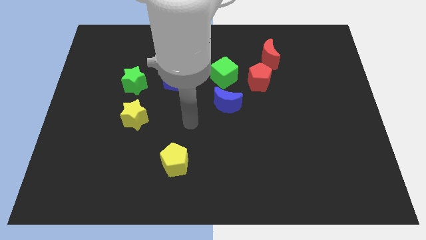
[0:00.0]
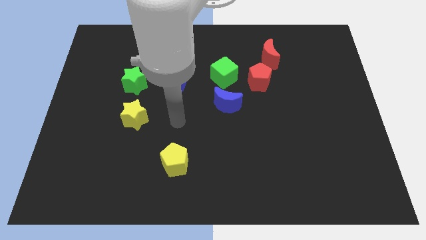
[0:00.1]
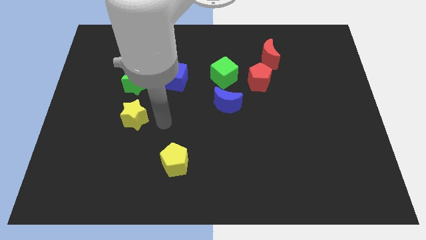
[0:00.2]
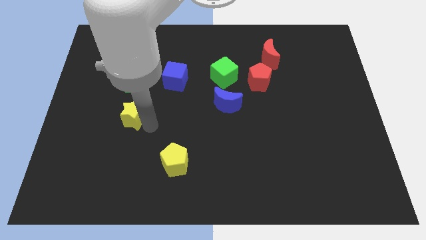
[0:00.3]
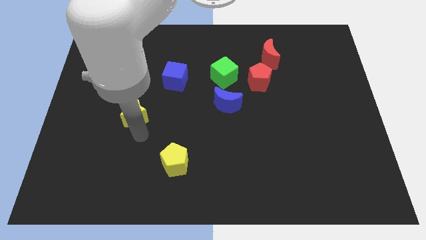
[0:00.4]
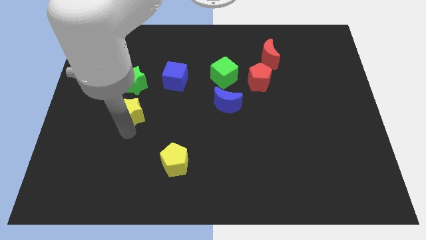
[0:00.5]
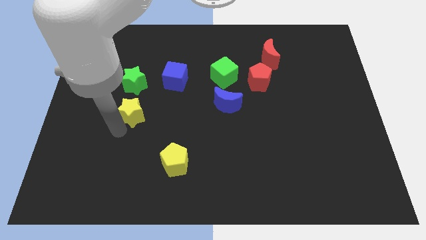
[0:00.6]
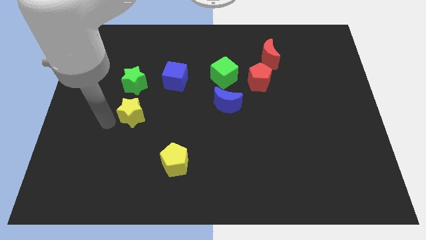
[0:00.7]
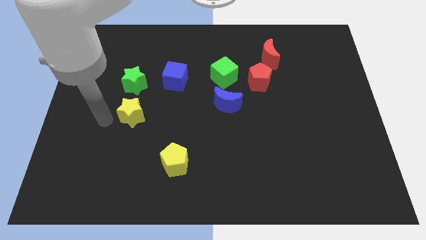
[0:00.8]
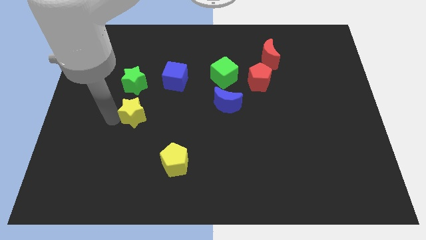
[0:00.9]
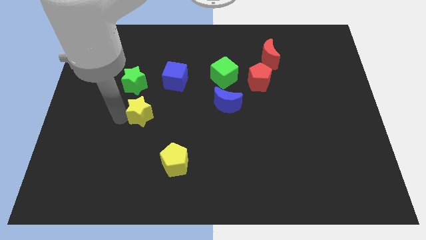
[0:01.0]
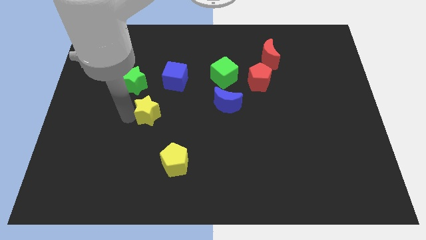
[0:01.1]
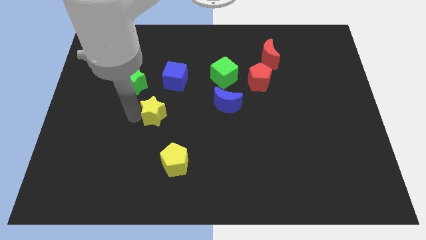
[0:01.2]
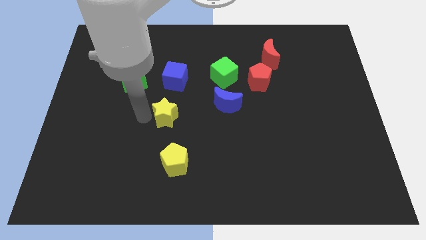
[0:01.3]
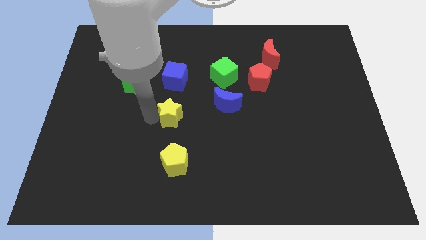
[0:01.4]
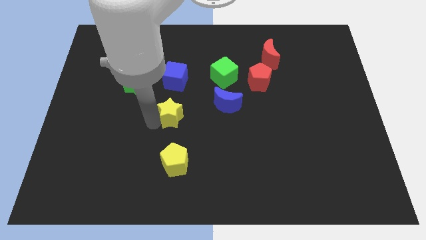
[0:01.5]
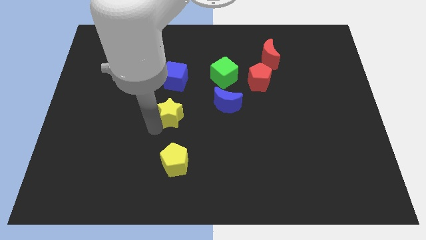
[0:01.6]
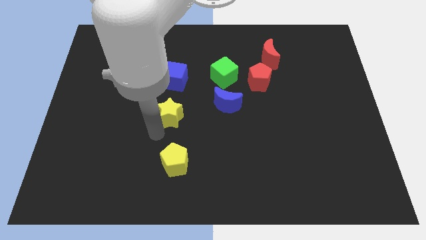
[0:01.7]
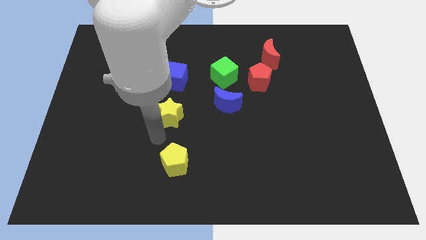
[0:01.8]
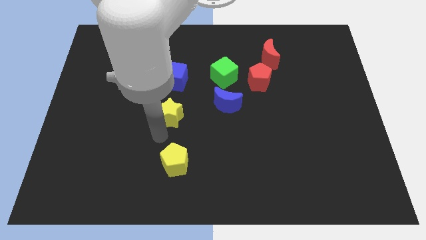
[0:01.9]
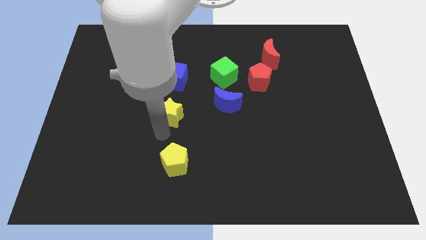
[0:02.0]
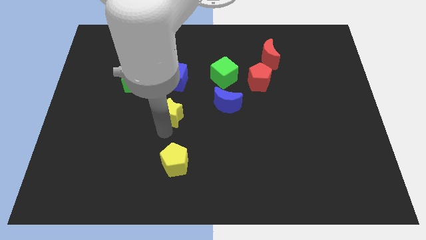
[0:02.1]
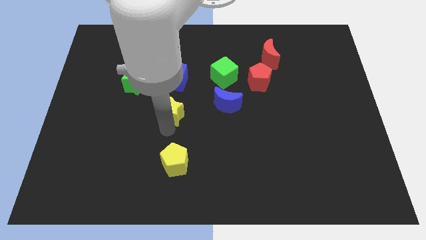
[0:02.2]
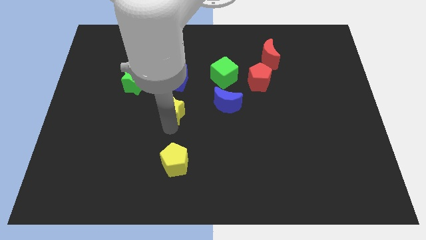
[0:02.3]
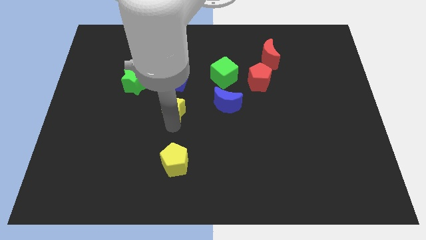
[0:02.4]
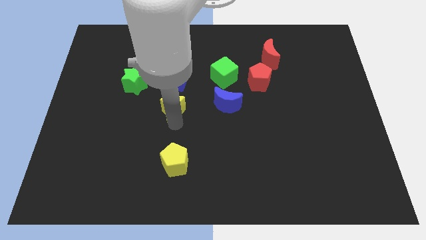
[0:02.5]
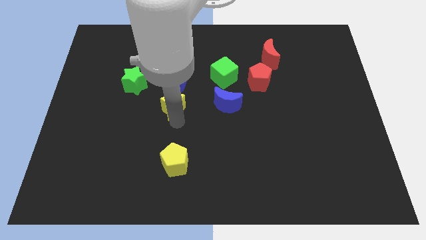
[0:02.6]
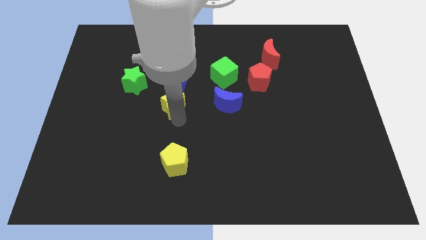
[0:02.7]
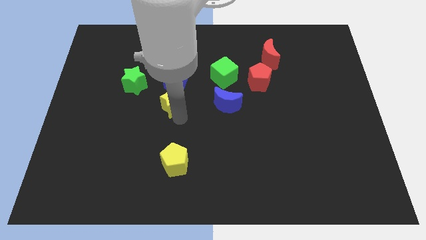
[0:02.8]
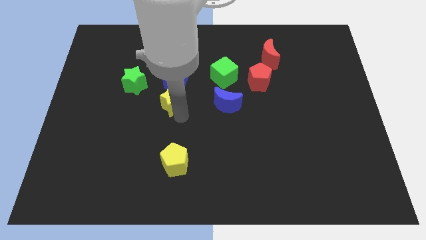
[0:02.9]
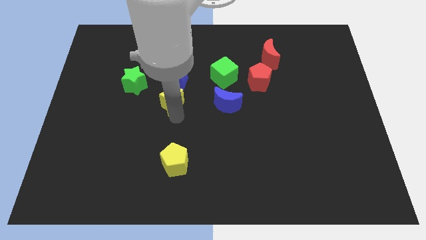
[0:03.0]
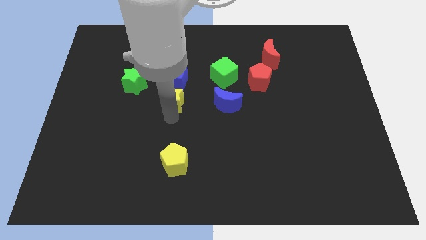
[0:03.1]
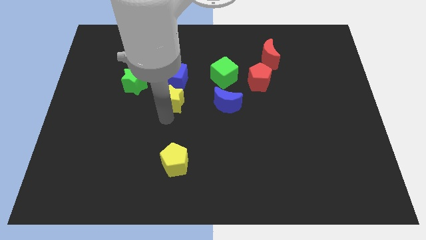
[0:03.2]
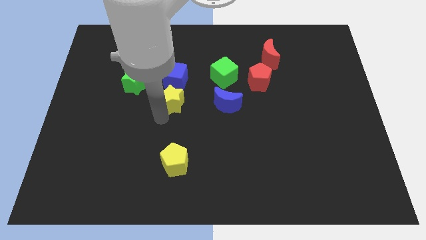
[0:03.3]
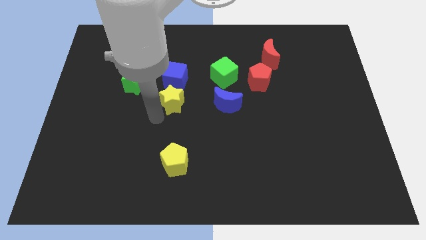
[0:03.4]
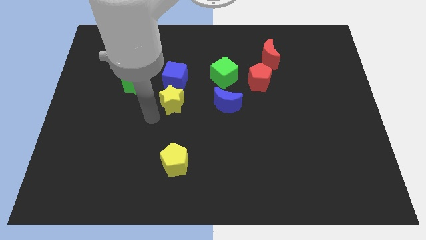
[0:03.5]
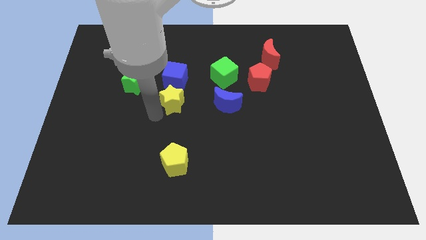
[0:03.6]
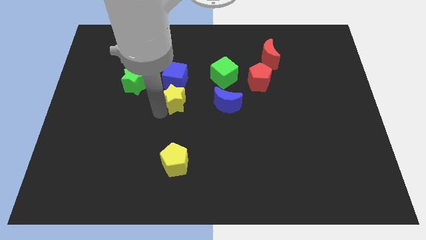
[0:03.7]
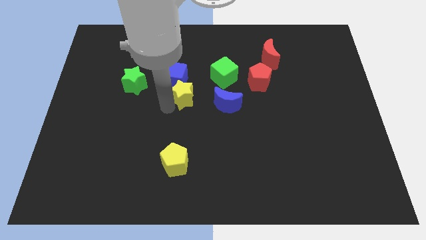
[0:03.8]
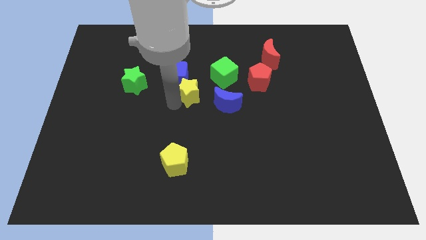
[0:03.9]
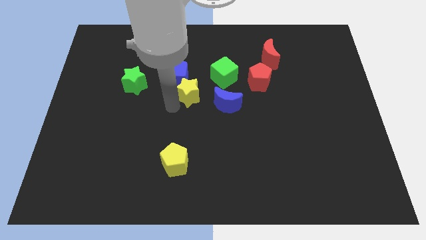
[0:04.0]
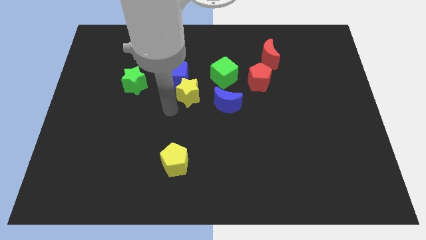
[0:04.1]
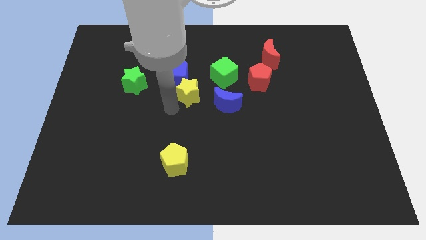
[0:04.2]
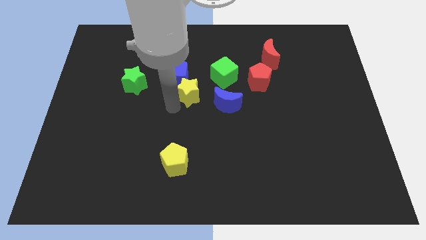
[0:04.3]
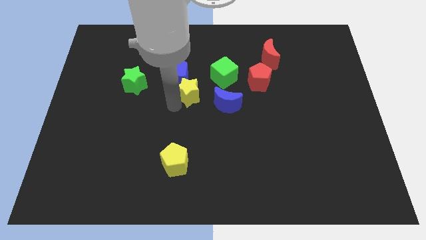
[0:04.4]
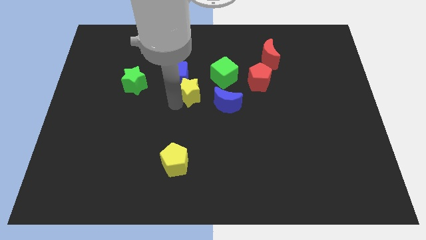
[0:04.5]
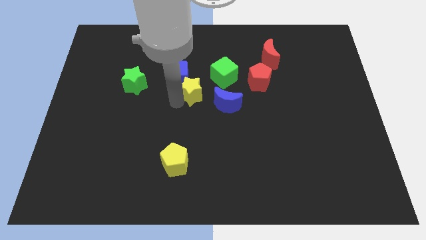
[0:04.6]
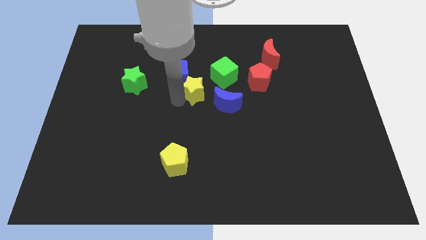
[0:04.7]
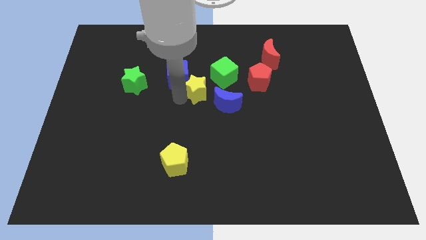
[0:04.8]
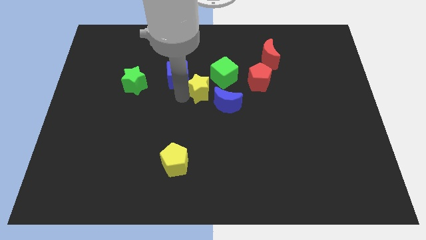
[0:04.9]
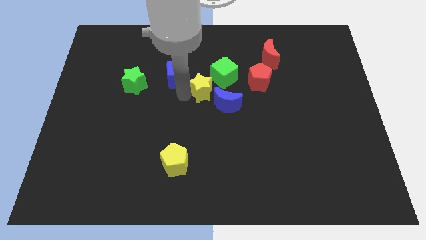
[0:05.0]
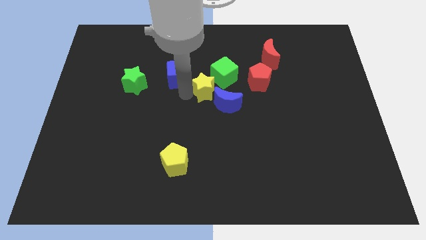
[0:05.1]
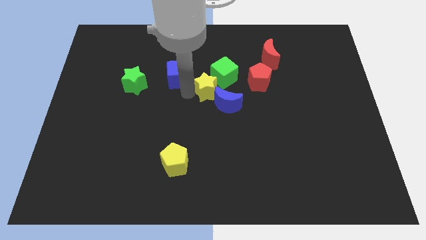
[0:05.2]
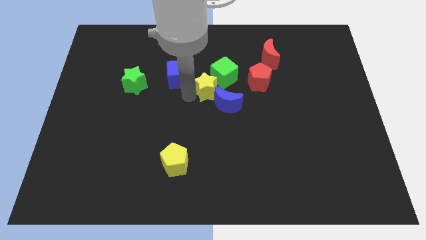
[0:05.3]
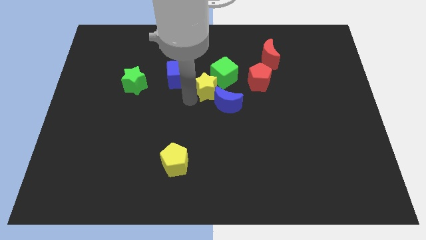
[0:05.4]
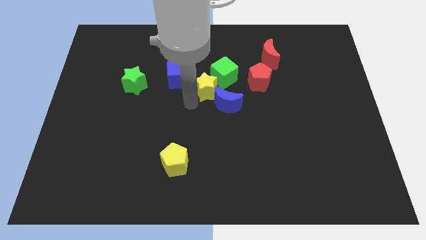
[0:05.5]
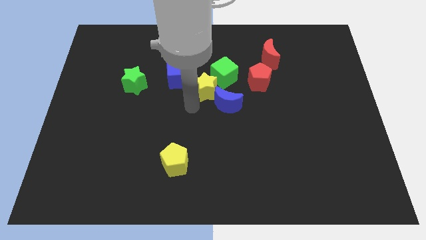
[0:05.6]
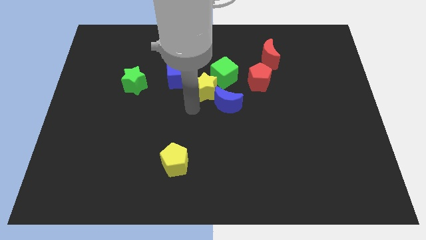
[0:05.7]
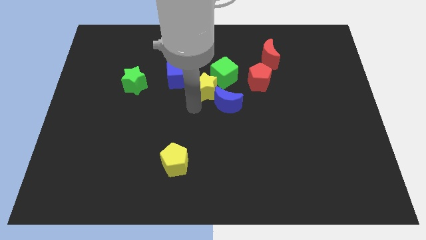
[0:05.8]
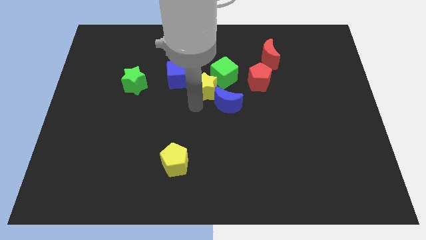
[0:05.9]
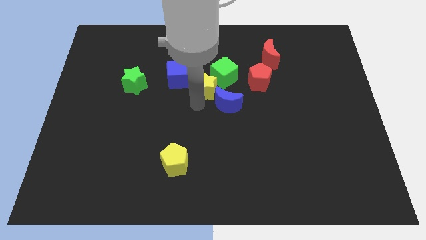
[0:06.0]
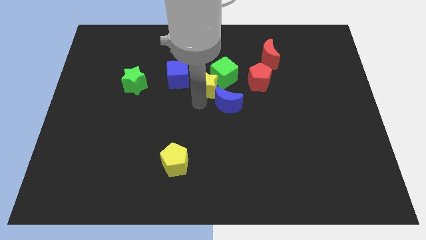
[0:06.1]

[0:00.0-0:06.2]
slide the yellow star towards the green cube
